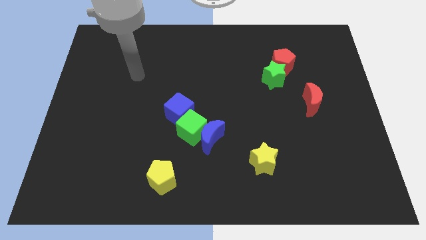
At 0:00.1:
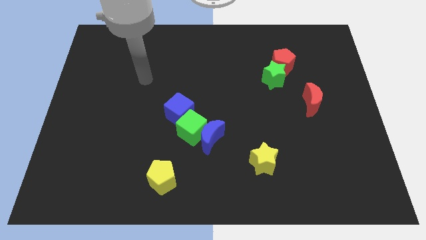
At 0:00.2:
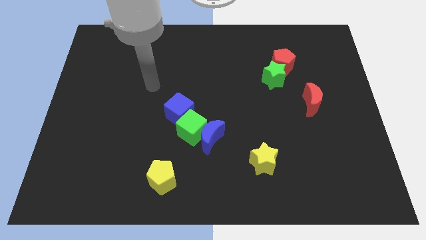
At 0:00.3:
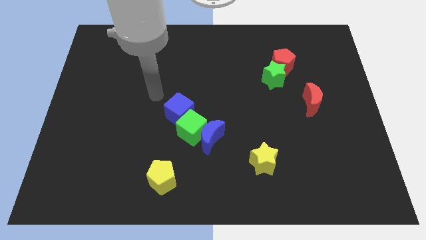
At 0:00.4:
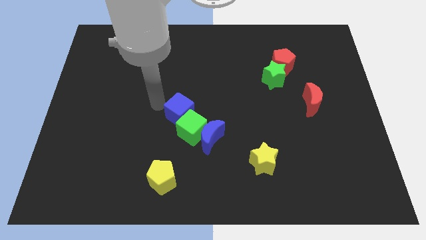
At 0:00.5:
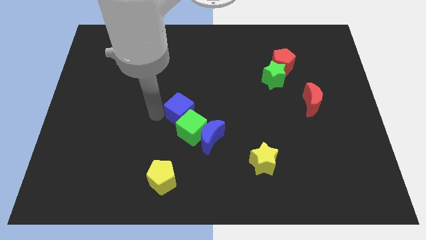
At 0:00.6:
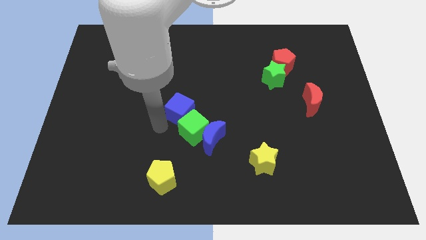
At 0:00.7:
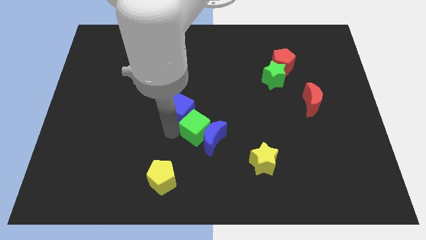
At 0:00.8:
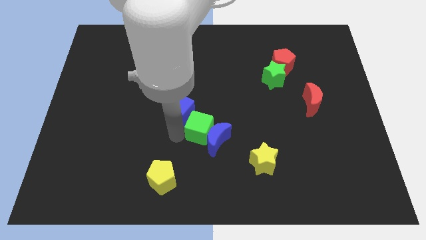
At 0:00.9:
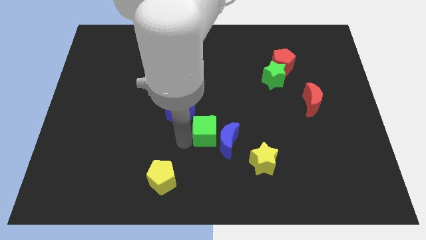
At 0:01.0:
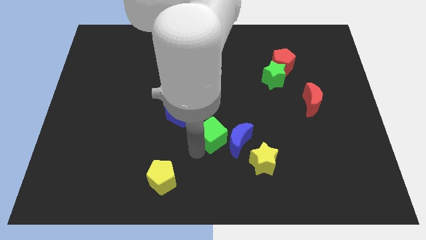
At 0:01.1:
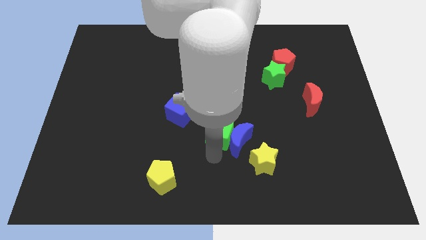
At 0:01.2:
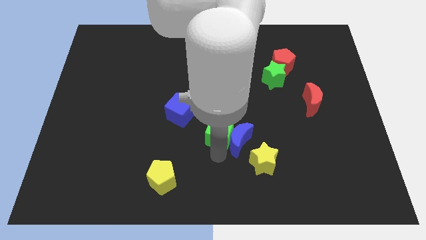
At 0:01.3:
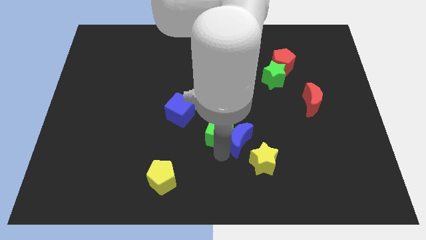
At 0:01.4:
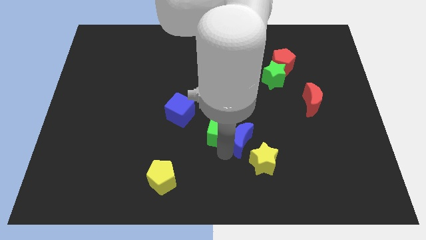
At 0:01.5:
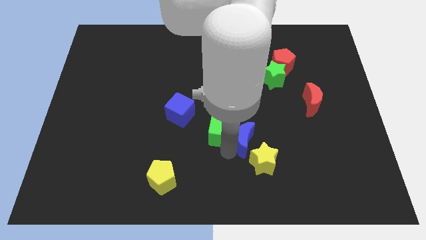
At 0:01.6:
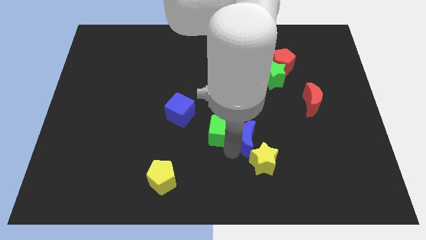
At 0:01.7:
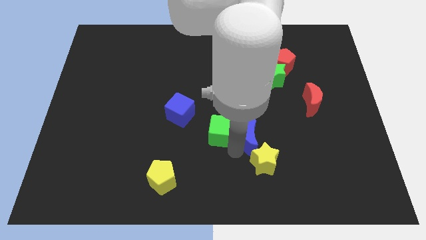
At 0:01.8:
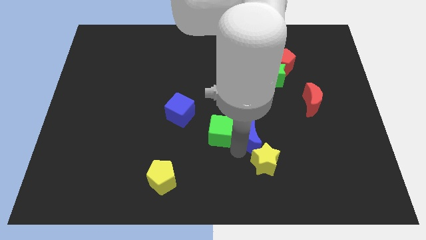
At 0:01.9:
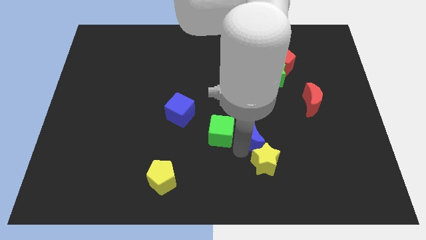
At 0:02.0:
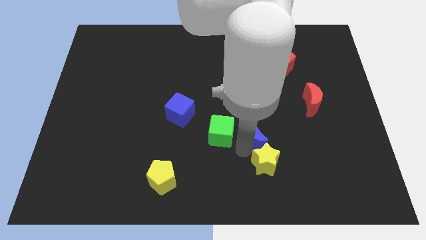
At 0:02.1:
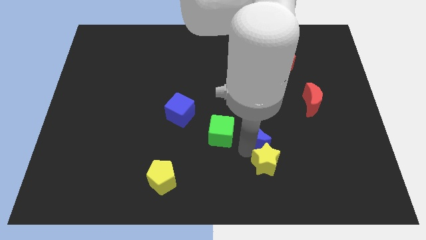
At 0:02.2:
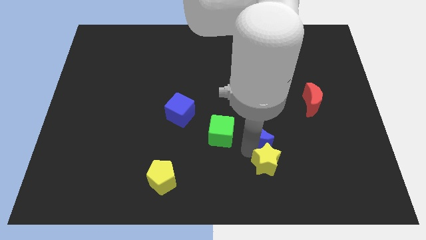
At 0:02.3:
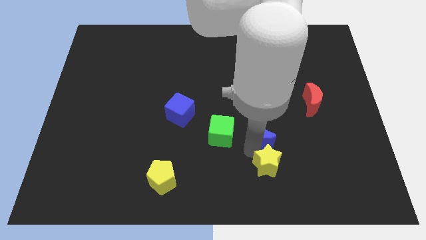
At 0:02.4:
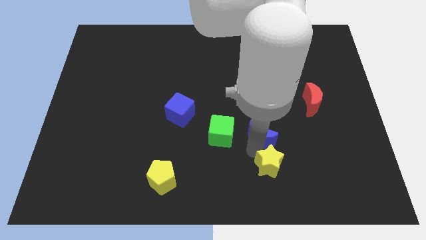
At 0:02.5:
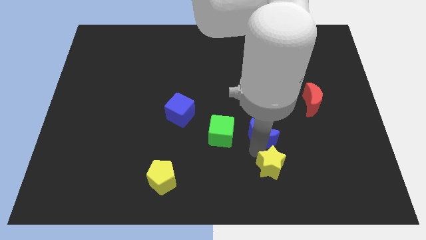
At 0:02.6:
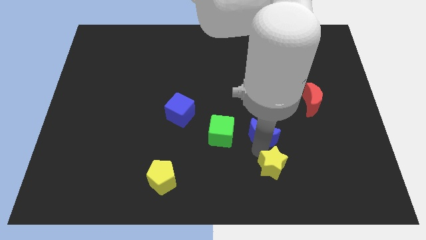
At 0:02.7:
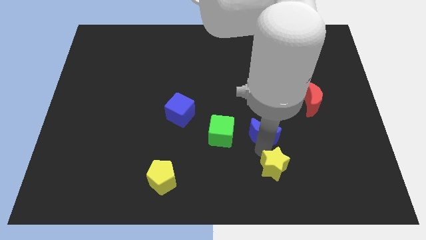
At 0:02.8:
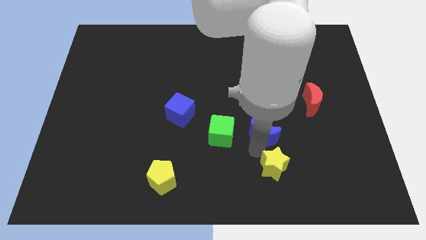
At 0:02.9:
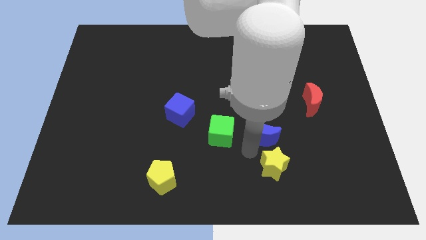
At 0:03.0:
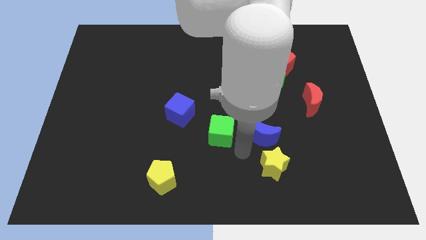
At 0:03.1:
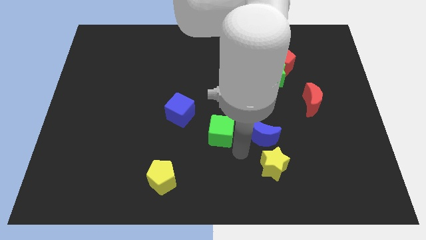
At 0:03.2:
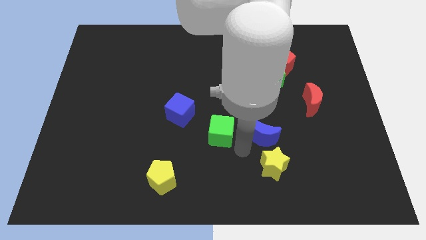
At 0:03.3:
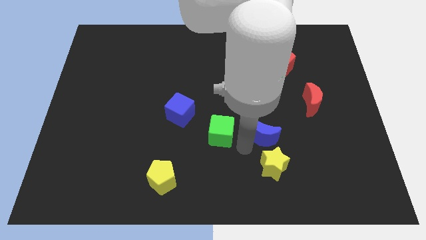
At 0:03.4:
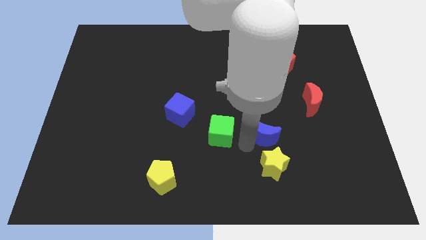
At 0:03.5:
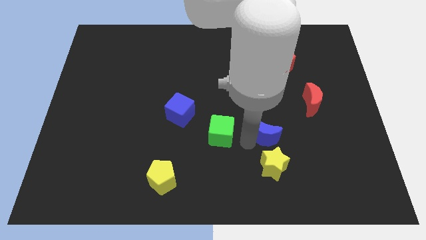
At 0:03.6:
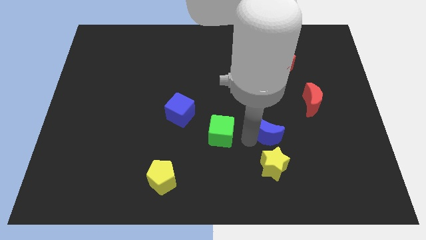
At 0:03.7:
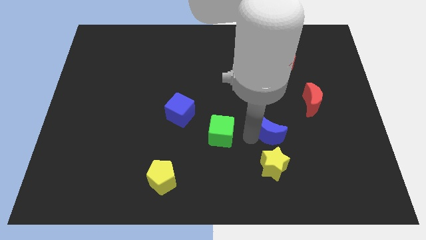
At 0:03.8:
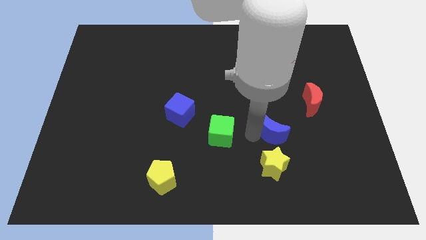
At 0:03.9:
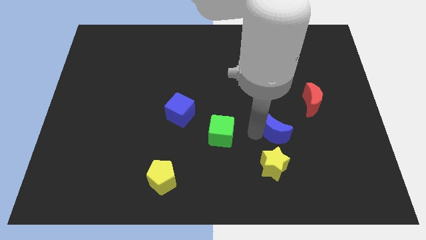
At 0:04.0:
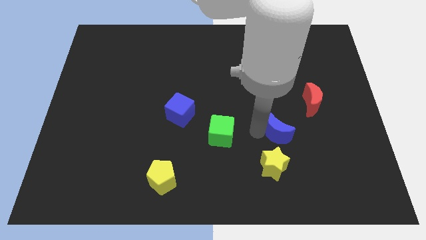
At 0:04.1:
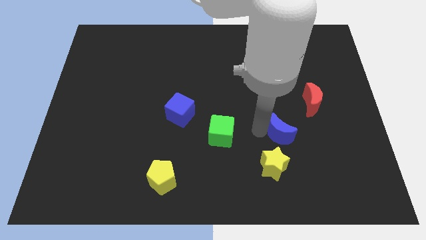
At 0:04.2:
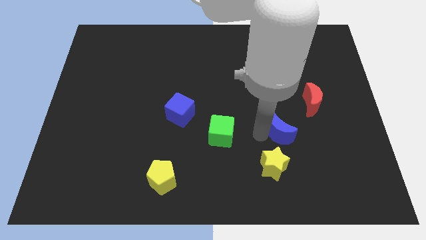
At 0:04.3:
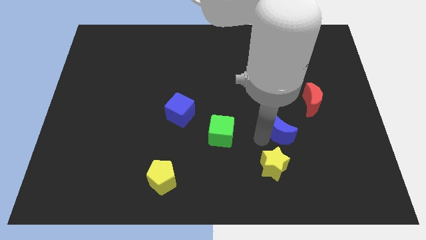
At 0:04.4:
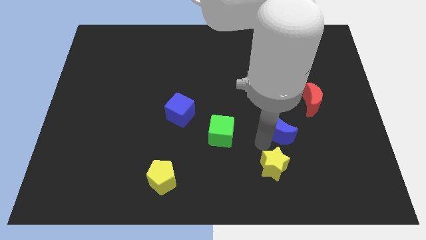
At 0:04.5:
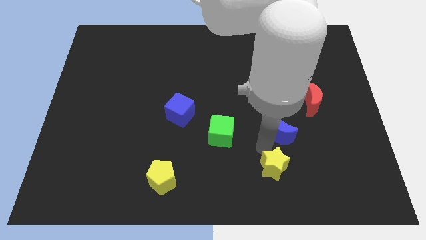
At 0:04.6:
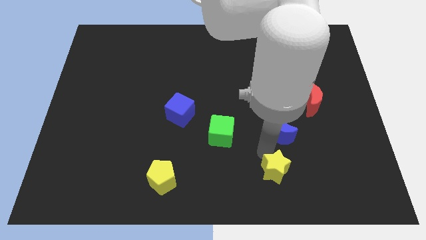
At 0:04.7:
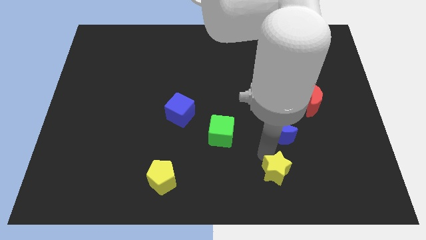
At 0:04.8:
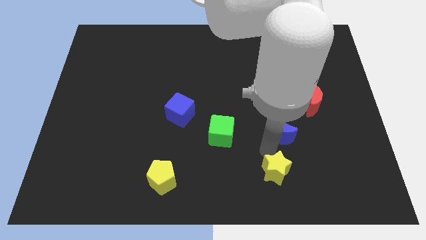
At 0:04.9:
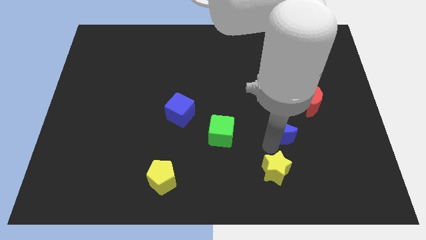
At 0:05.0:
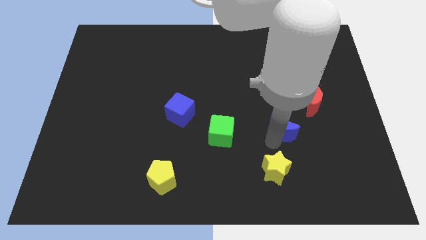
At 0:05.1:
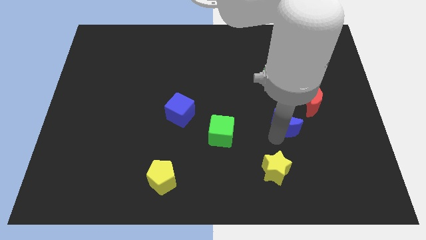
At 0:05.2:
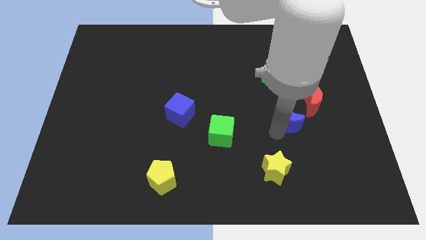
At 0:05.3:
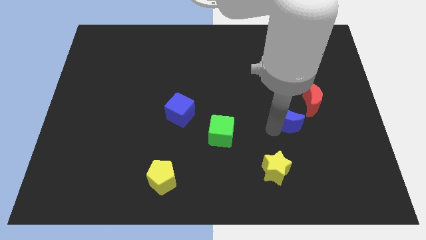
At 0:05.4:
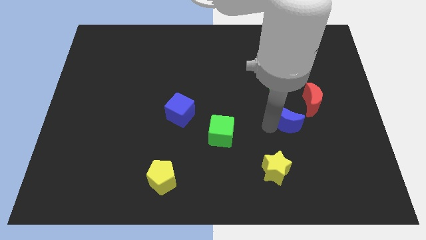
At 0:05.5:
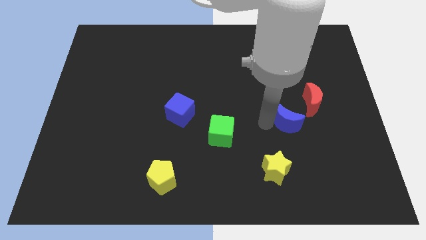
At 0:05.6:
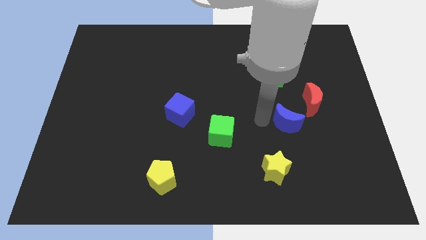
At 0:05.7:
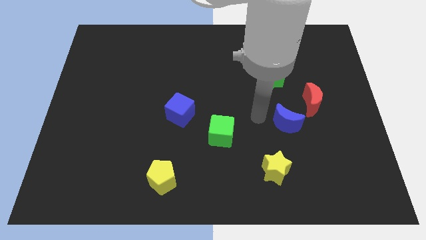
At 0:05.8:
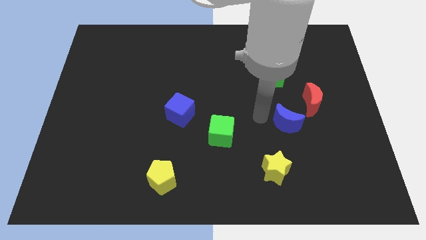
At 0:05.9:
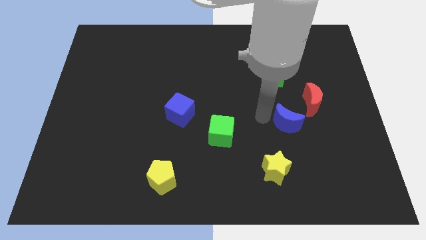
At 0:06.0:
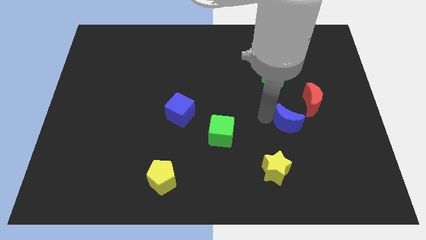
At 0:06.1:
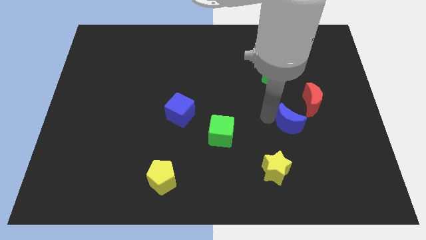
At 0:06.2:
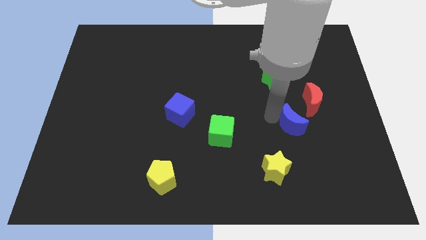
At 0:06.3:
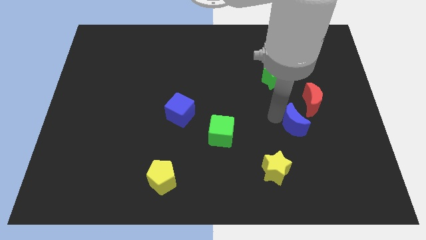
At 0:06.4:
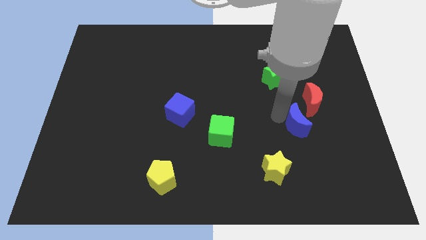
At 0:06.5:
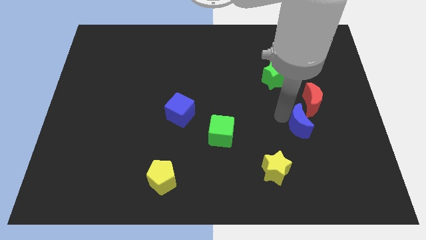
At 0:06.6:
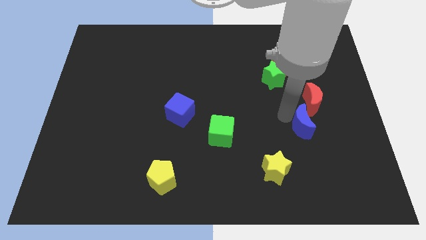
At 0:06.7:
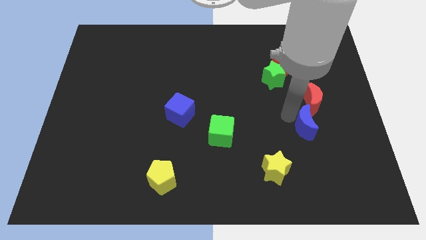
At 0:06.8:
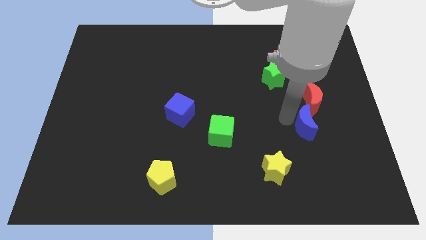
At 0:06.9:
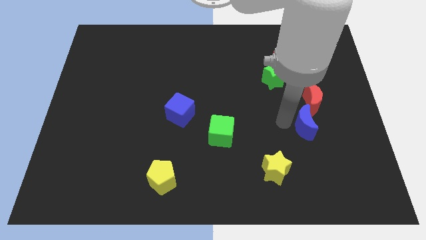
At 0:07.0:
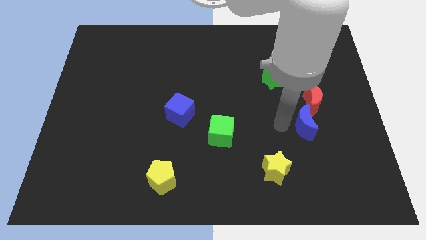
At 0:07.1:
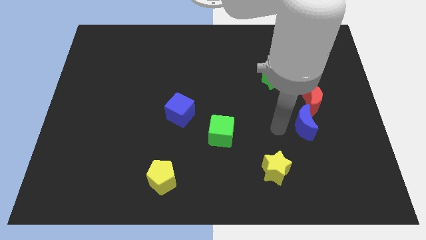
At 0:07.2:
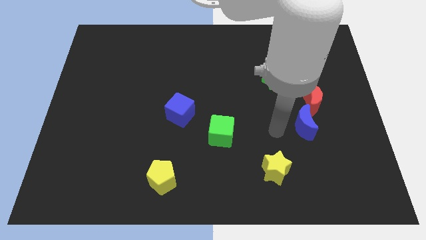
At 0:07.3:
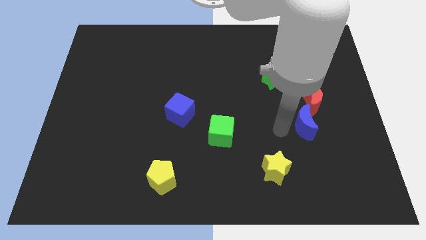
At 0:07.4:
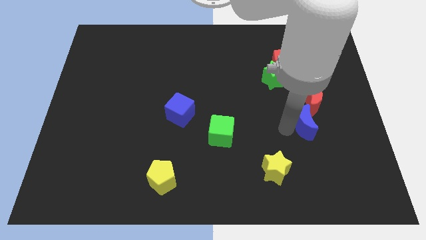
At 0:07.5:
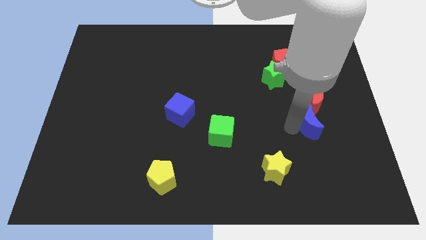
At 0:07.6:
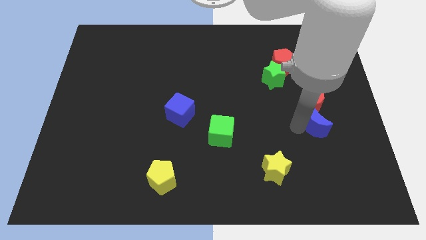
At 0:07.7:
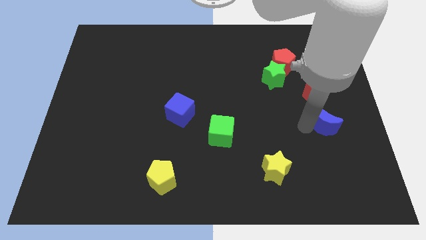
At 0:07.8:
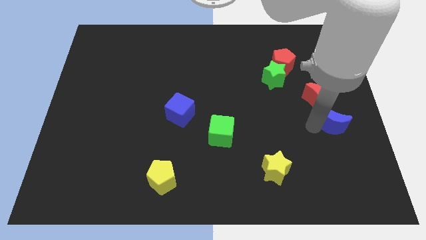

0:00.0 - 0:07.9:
put the blue moon to the center right
